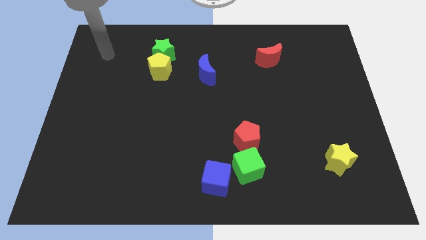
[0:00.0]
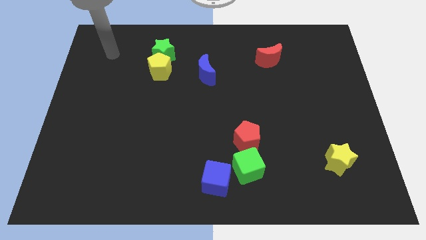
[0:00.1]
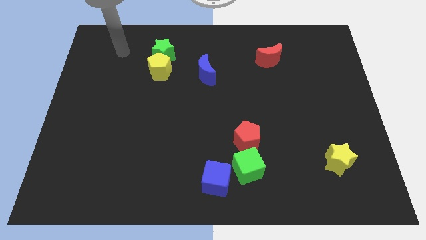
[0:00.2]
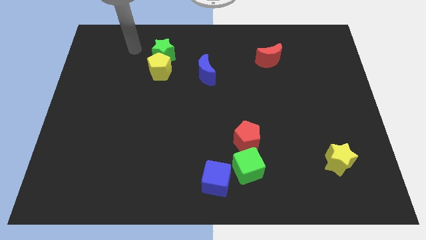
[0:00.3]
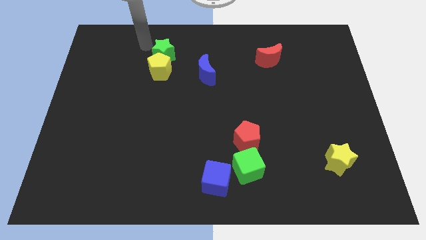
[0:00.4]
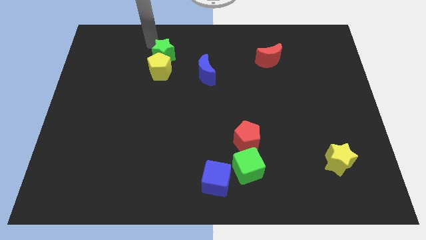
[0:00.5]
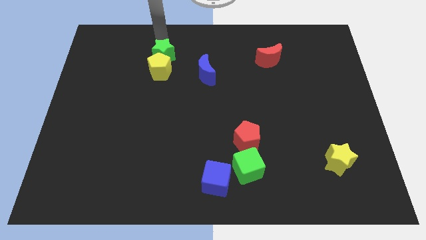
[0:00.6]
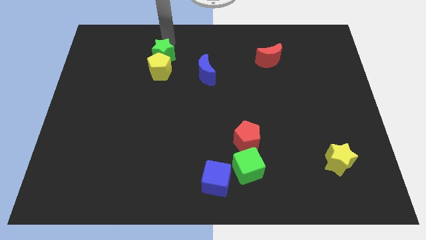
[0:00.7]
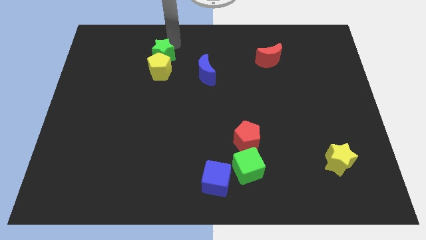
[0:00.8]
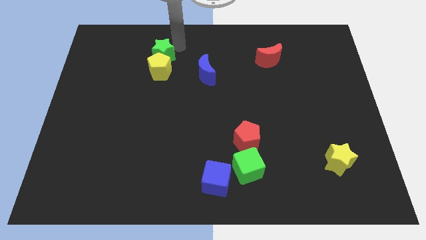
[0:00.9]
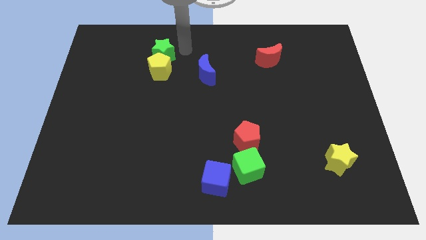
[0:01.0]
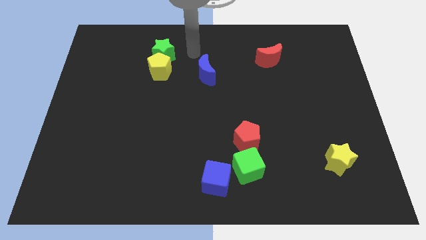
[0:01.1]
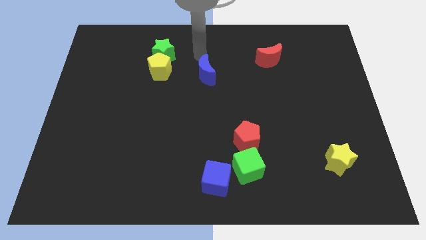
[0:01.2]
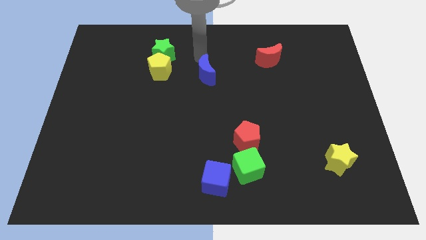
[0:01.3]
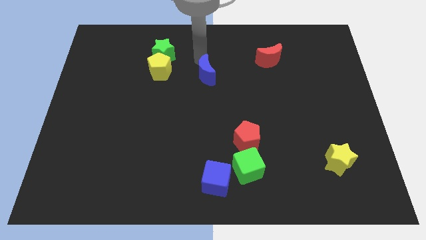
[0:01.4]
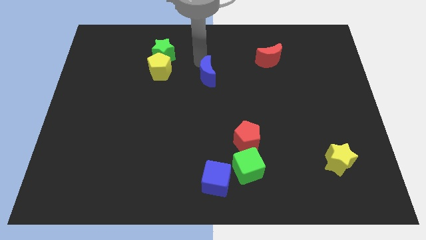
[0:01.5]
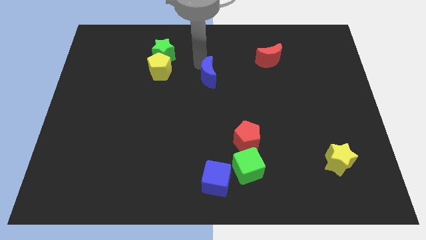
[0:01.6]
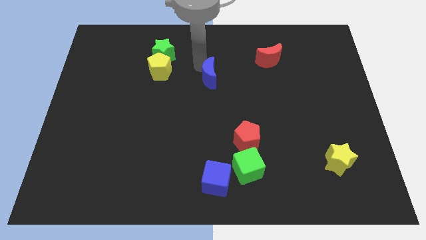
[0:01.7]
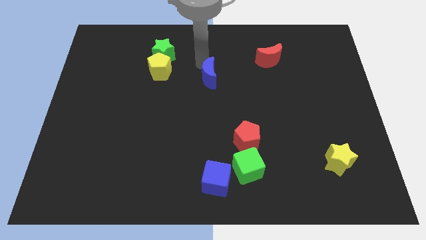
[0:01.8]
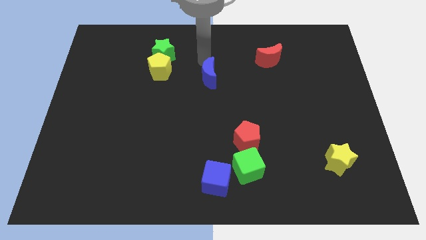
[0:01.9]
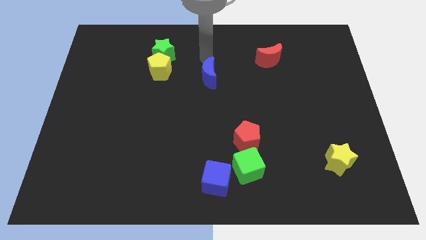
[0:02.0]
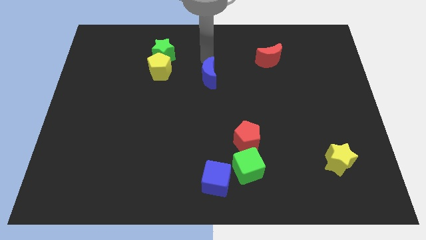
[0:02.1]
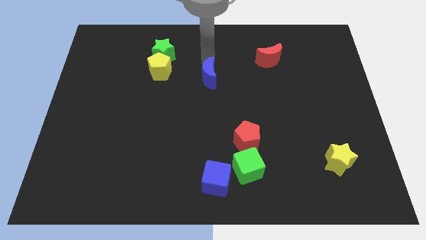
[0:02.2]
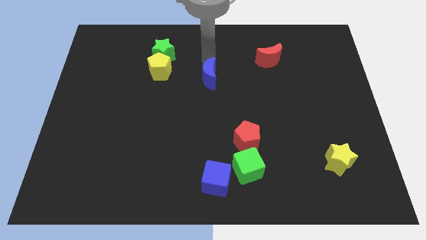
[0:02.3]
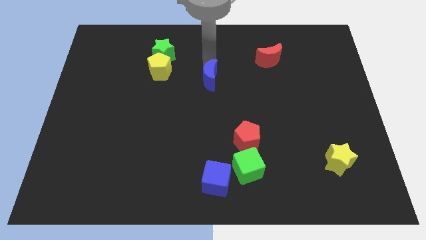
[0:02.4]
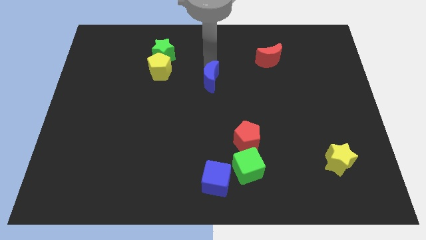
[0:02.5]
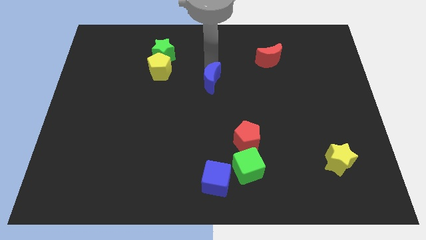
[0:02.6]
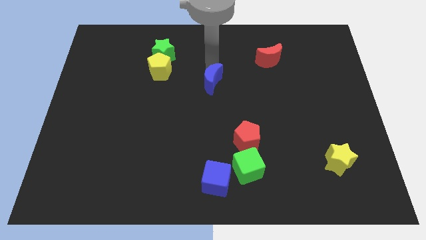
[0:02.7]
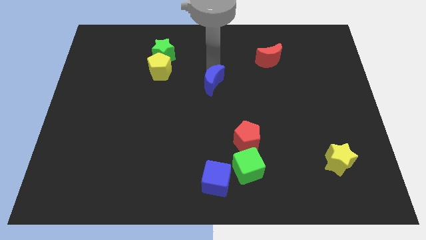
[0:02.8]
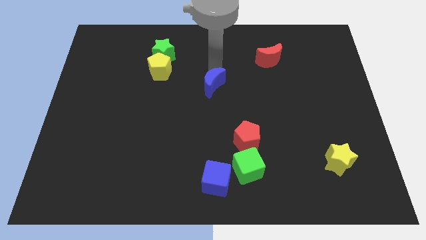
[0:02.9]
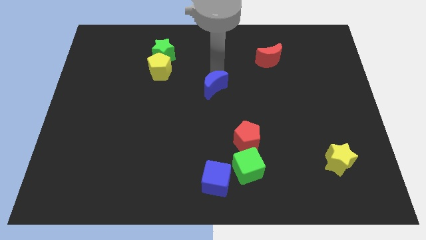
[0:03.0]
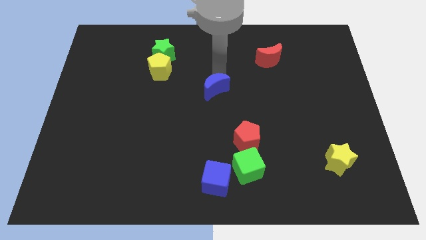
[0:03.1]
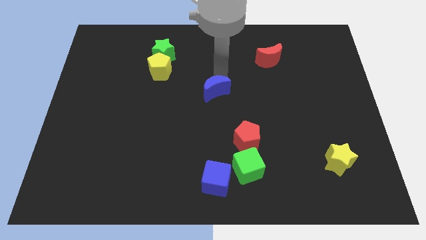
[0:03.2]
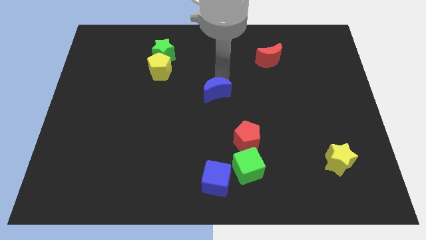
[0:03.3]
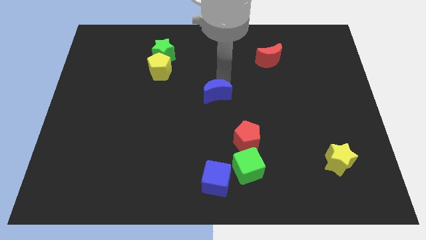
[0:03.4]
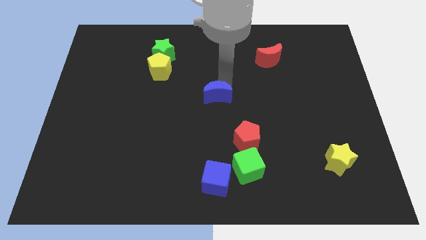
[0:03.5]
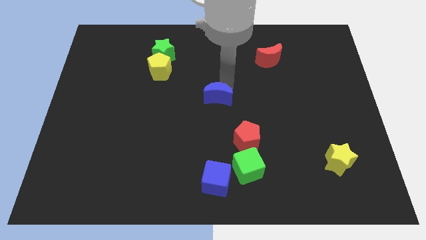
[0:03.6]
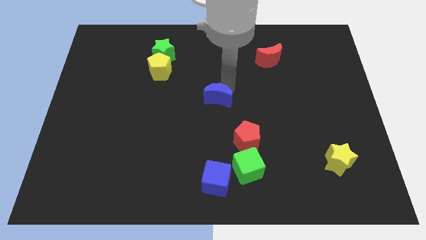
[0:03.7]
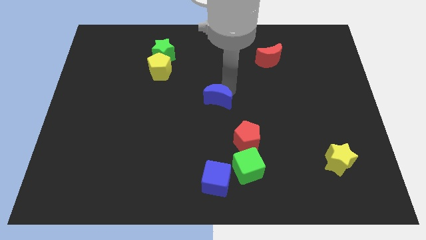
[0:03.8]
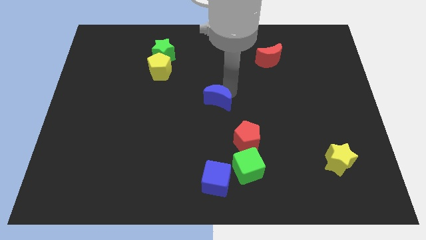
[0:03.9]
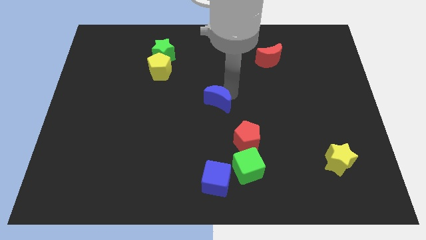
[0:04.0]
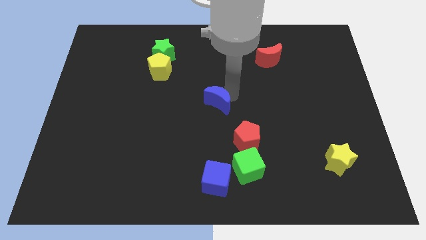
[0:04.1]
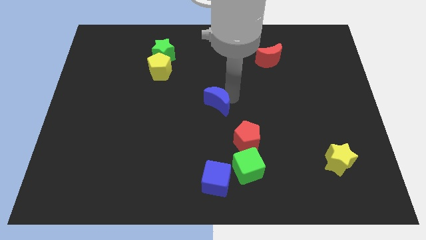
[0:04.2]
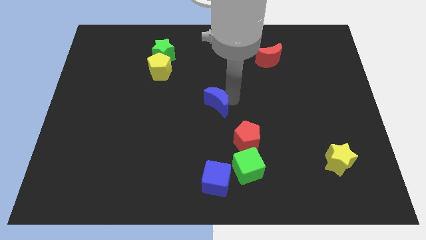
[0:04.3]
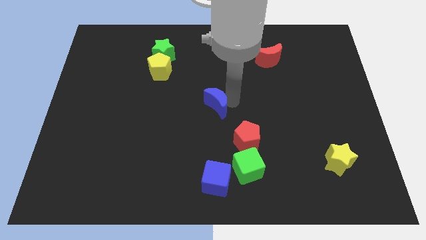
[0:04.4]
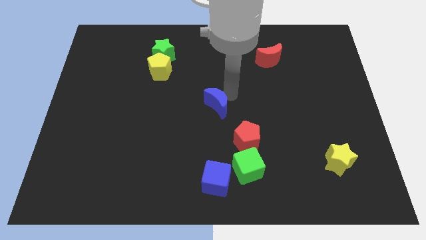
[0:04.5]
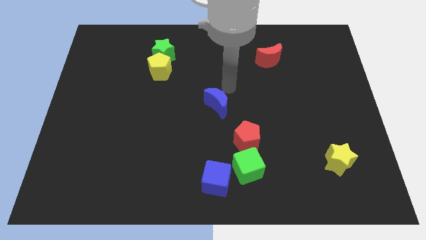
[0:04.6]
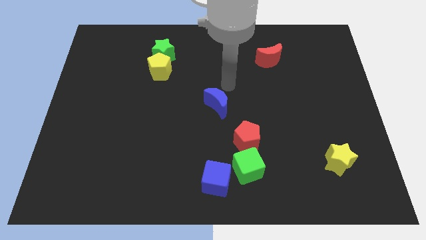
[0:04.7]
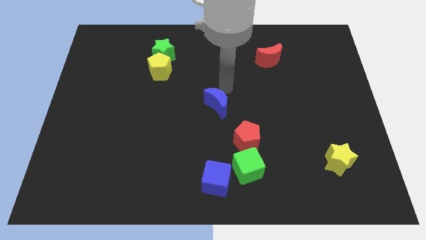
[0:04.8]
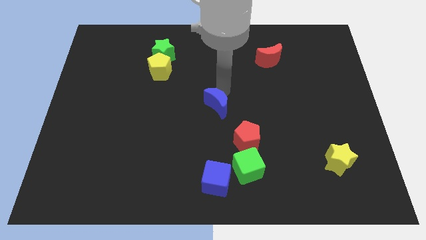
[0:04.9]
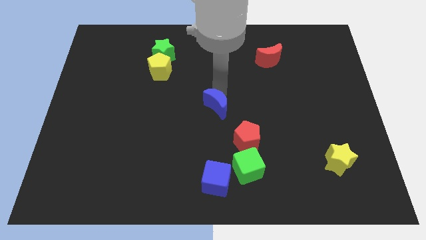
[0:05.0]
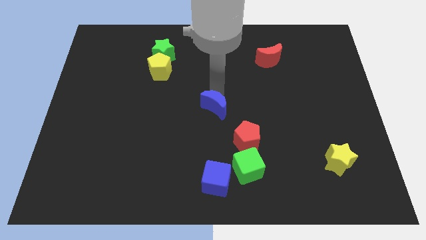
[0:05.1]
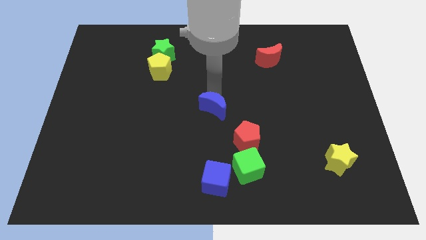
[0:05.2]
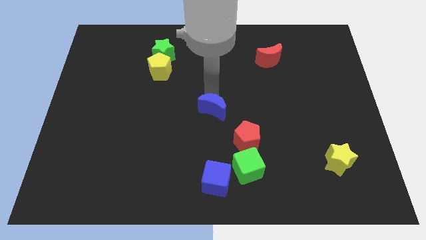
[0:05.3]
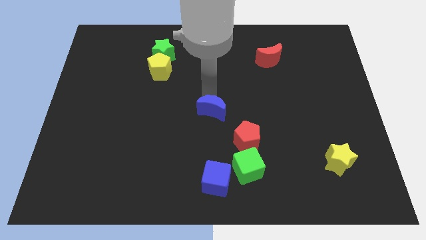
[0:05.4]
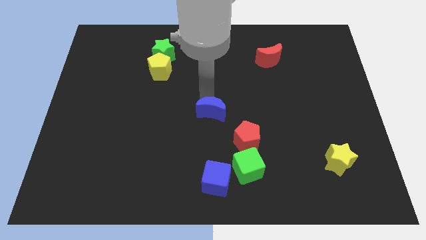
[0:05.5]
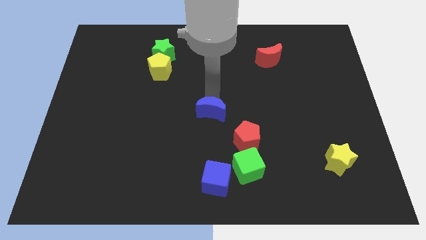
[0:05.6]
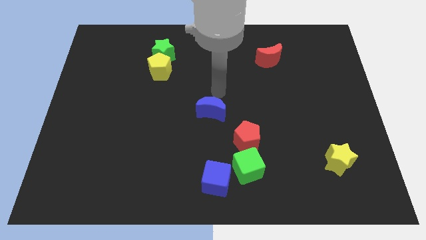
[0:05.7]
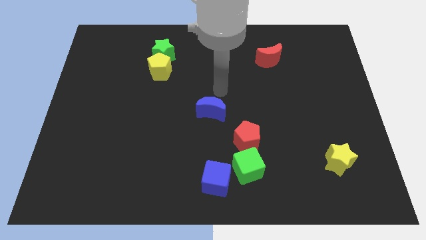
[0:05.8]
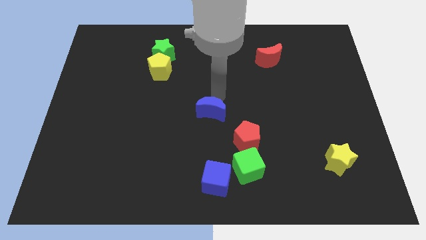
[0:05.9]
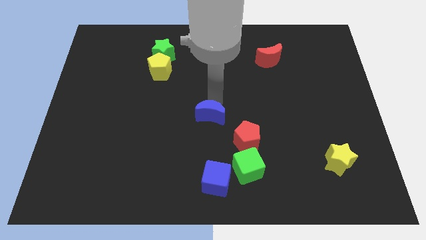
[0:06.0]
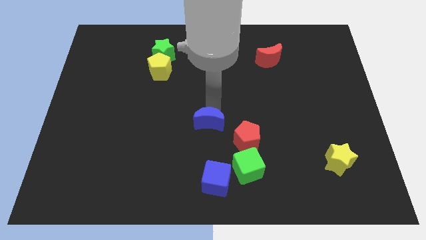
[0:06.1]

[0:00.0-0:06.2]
push the blue moon just left of the red pentagon

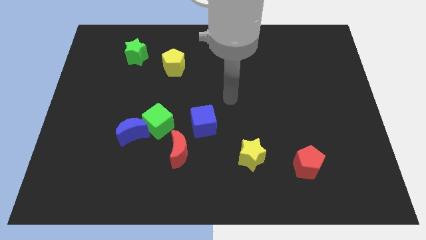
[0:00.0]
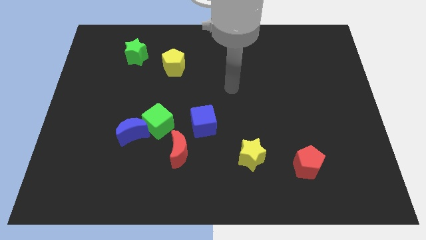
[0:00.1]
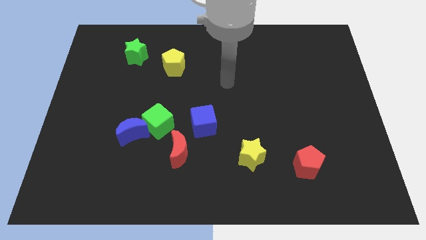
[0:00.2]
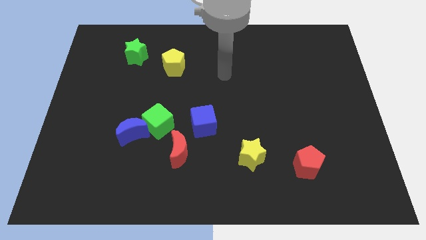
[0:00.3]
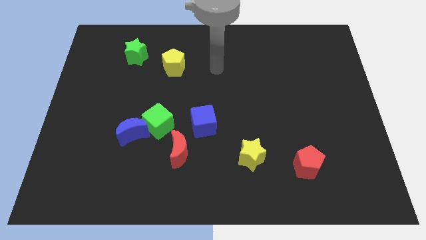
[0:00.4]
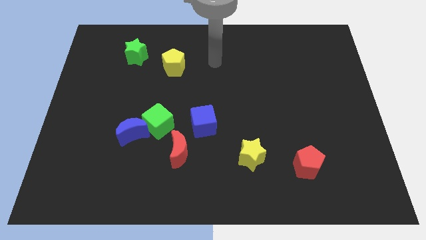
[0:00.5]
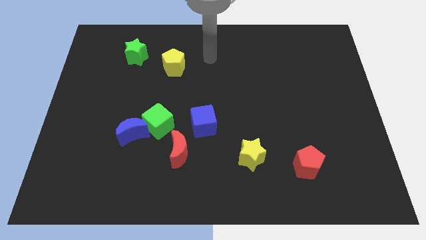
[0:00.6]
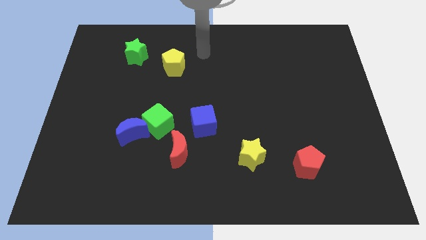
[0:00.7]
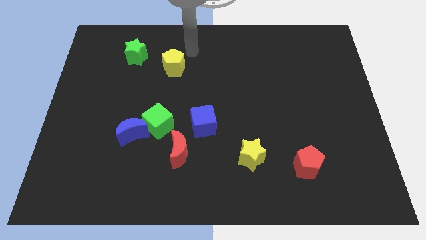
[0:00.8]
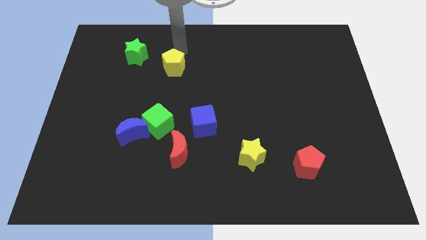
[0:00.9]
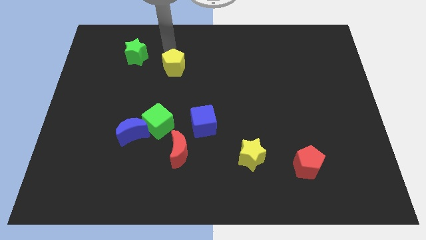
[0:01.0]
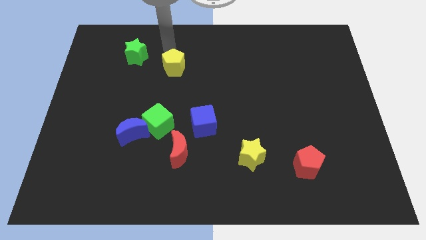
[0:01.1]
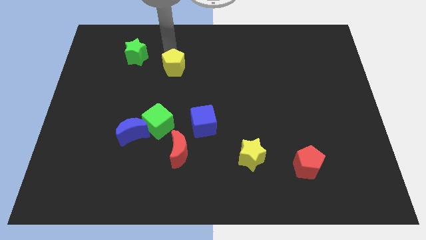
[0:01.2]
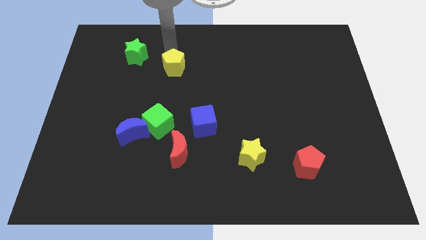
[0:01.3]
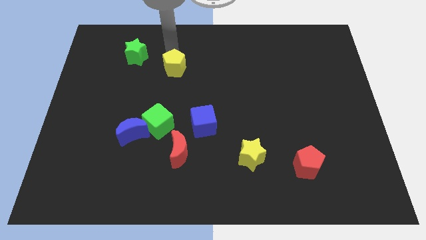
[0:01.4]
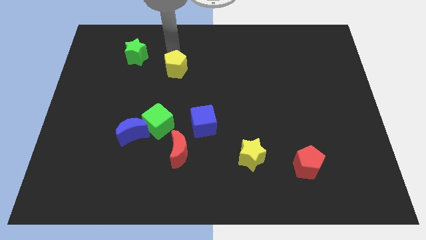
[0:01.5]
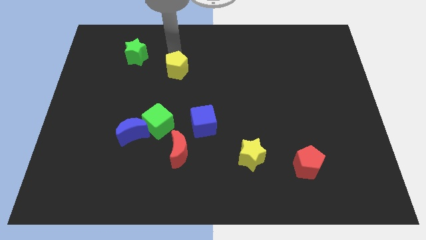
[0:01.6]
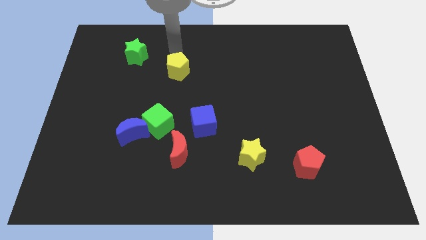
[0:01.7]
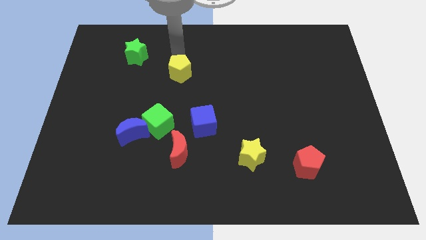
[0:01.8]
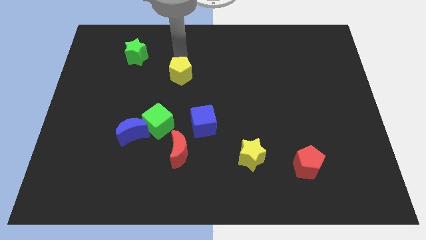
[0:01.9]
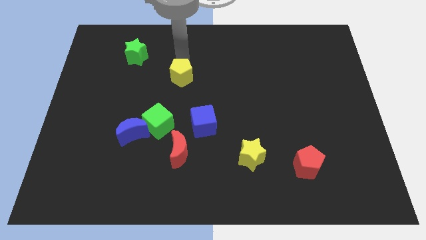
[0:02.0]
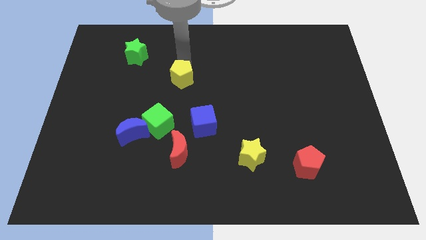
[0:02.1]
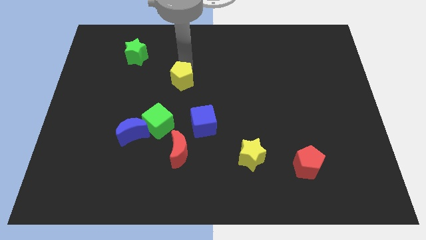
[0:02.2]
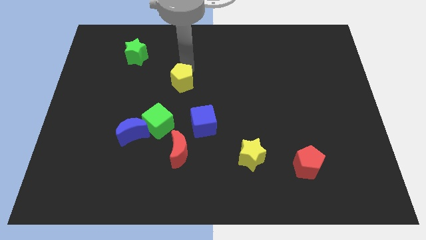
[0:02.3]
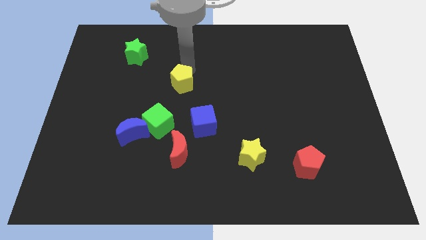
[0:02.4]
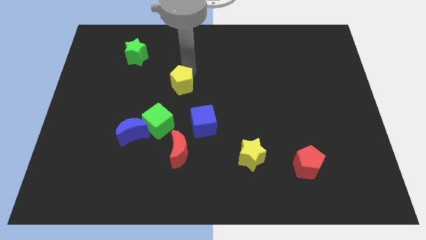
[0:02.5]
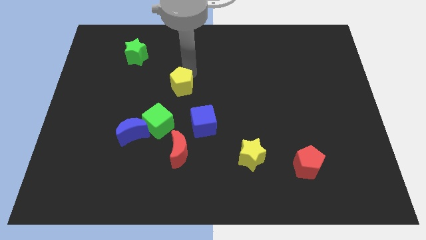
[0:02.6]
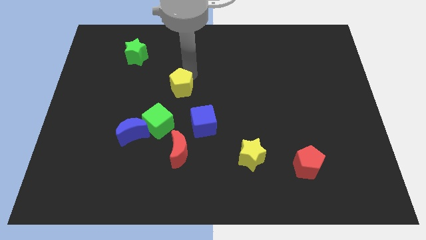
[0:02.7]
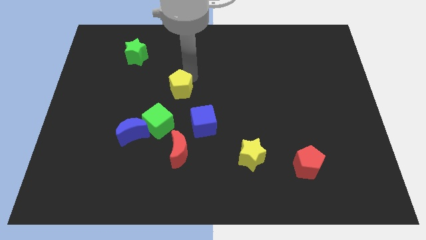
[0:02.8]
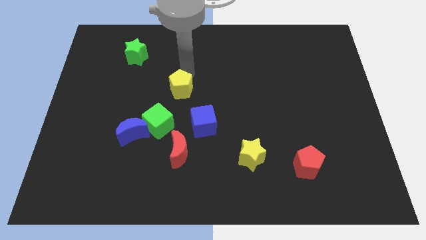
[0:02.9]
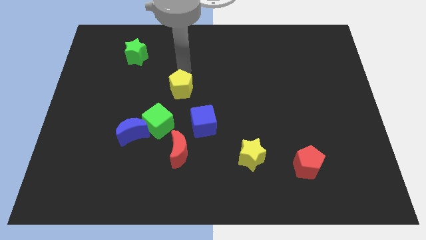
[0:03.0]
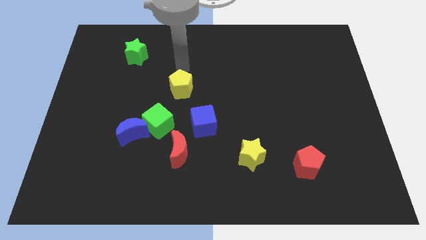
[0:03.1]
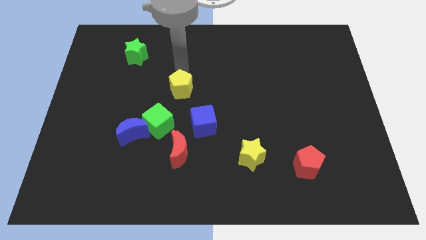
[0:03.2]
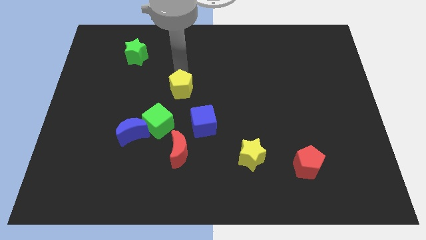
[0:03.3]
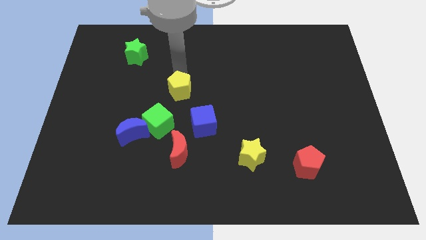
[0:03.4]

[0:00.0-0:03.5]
put the yellow pentagon to the top left of the blue cube
